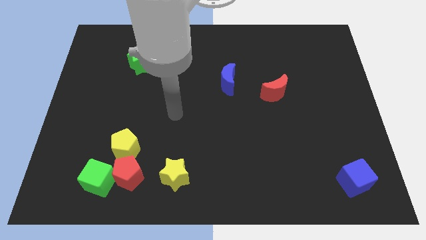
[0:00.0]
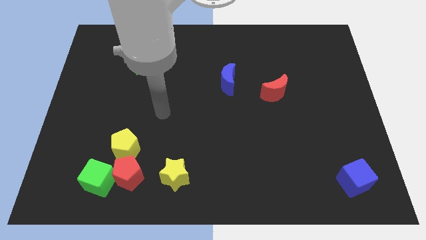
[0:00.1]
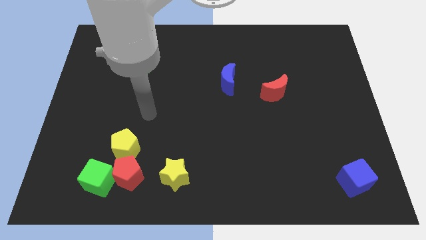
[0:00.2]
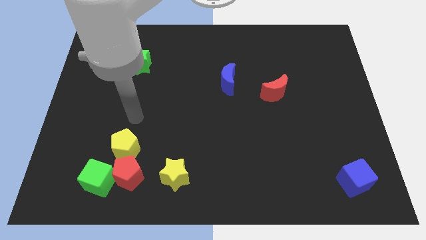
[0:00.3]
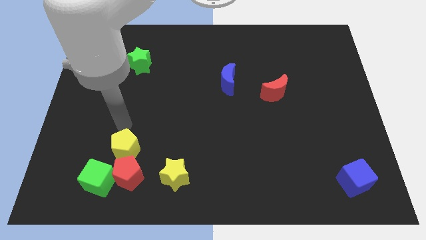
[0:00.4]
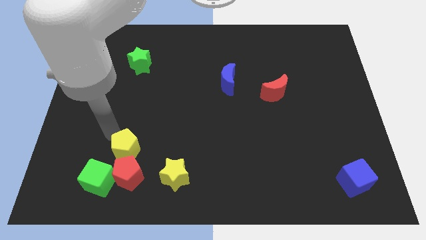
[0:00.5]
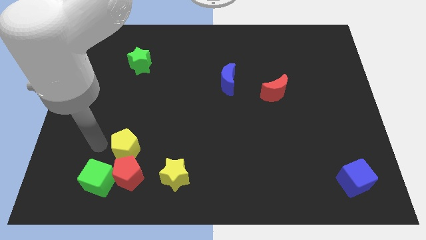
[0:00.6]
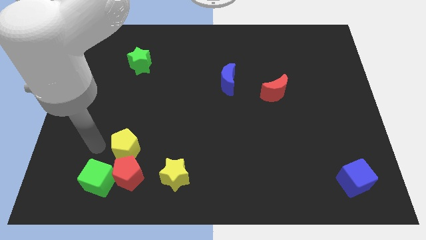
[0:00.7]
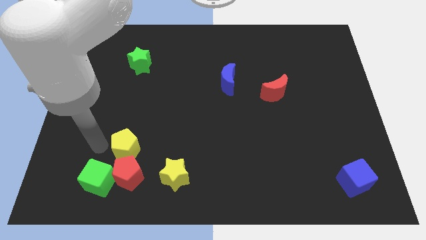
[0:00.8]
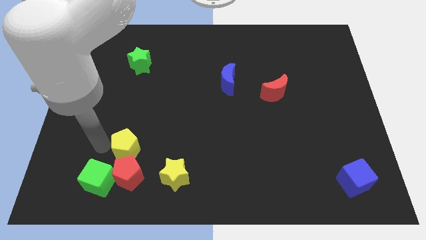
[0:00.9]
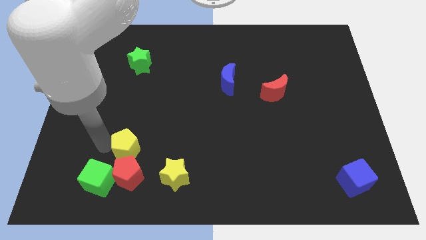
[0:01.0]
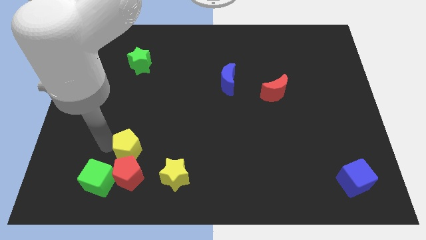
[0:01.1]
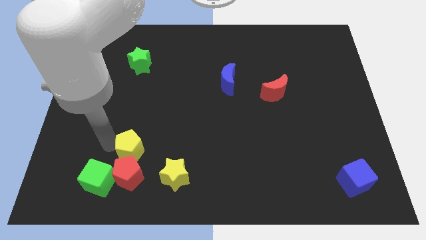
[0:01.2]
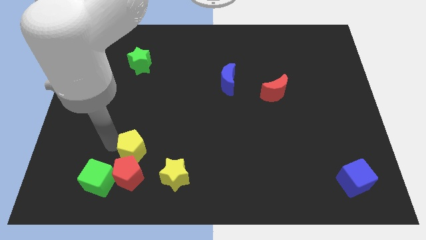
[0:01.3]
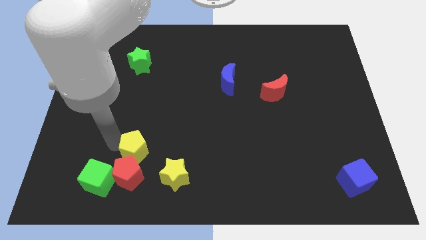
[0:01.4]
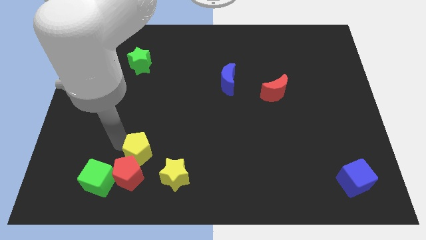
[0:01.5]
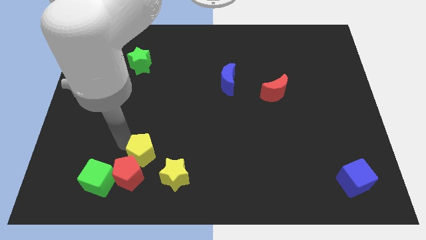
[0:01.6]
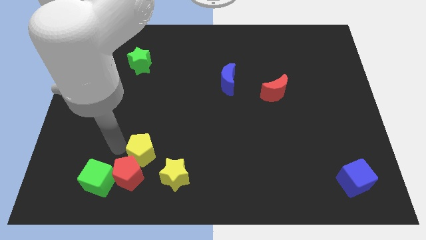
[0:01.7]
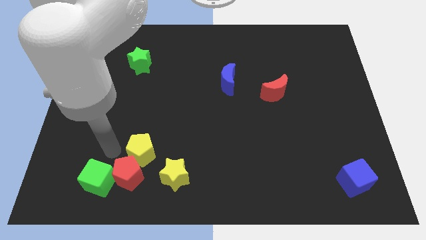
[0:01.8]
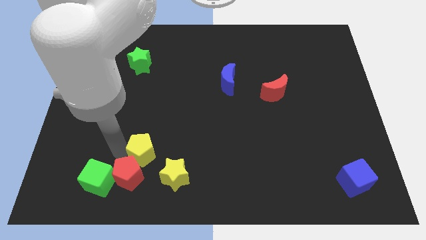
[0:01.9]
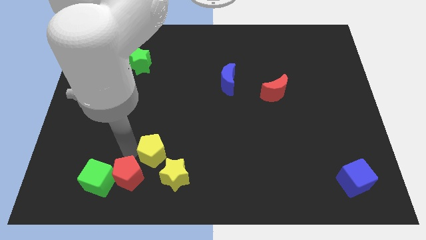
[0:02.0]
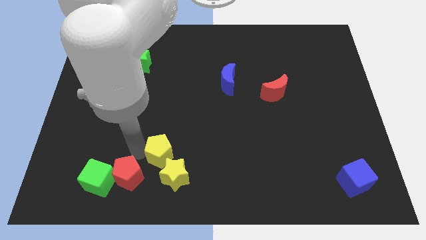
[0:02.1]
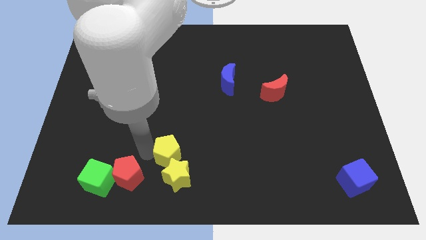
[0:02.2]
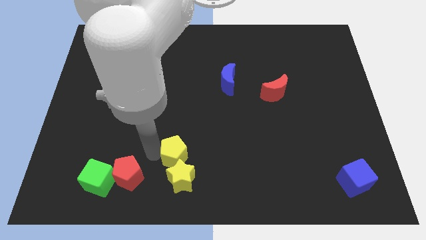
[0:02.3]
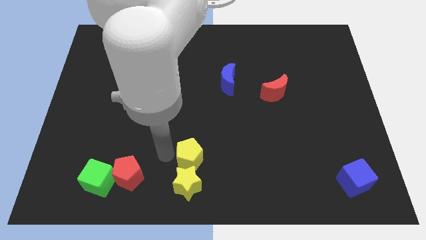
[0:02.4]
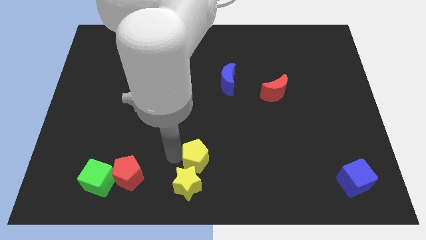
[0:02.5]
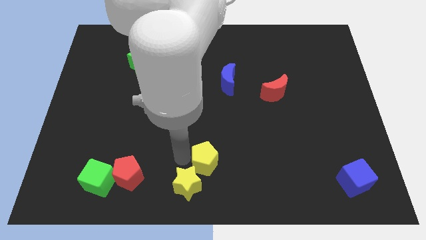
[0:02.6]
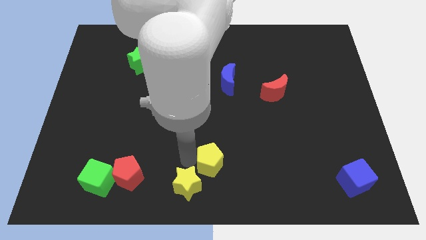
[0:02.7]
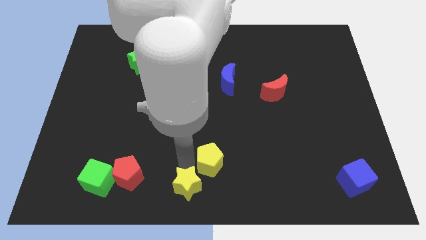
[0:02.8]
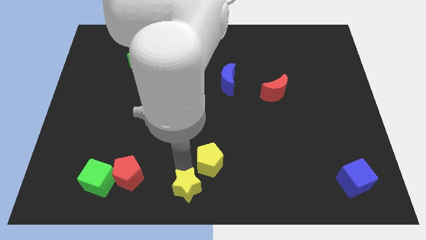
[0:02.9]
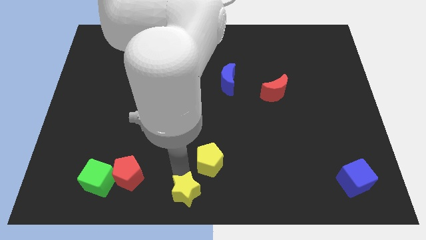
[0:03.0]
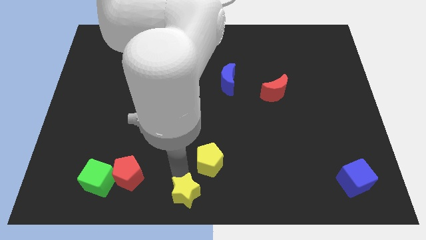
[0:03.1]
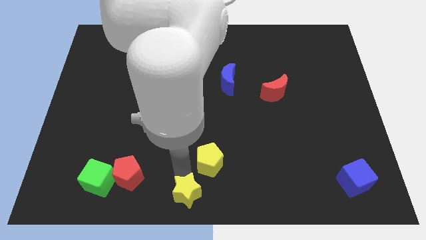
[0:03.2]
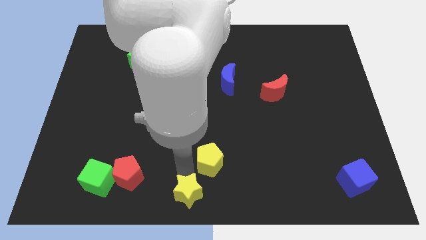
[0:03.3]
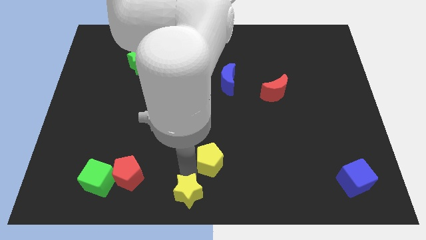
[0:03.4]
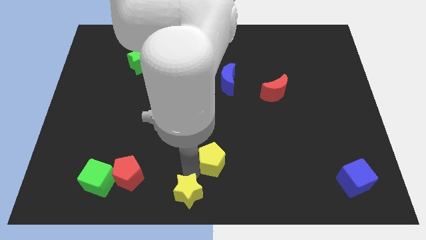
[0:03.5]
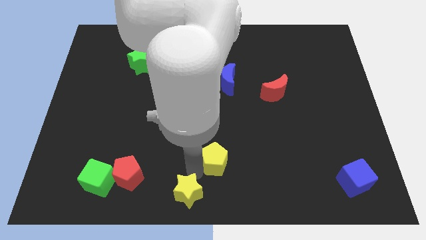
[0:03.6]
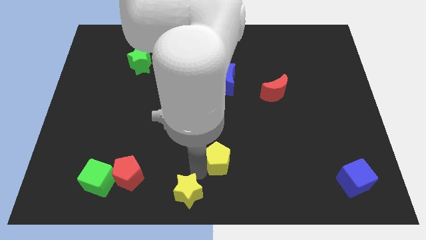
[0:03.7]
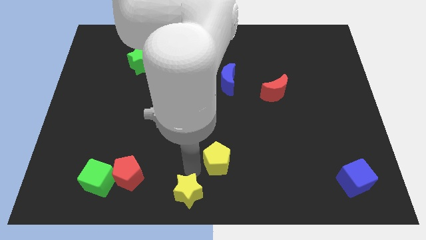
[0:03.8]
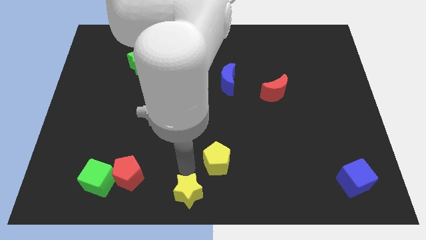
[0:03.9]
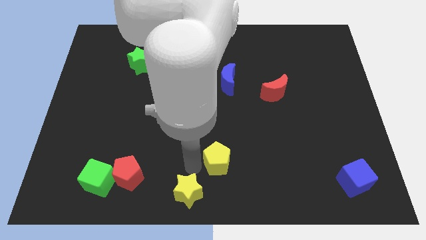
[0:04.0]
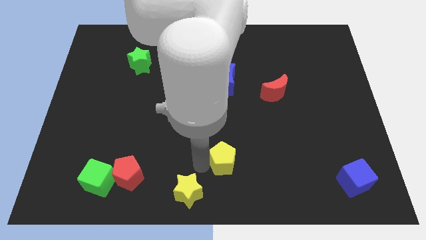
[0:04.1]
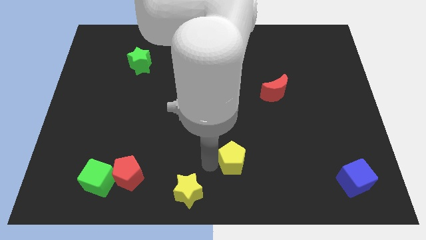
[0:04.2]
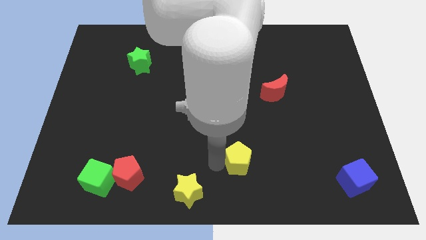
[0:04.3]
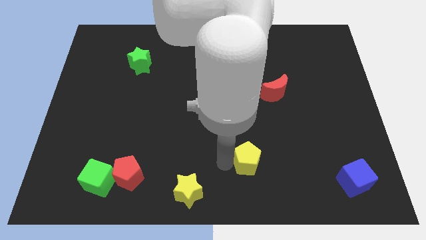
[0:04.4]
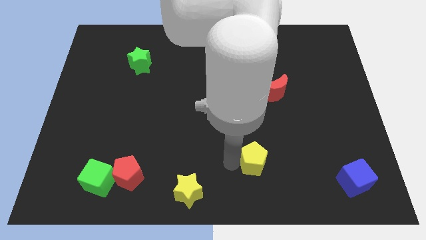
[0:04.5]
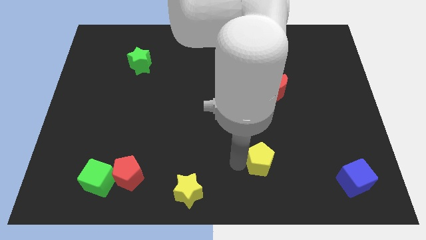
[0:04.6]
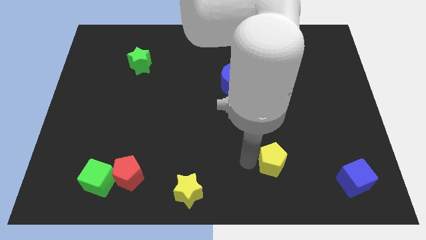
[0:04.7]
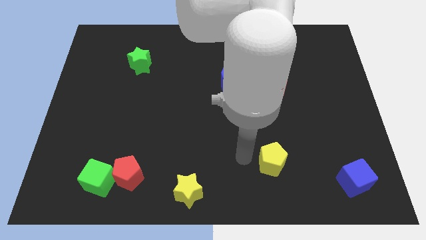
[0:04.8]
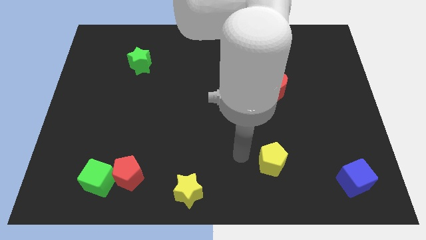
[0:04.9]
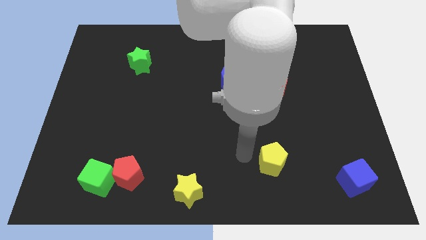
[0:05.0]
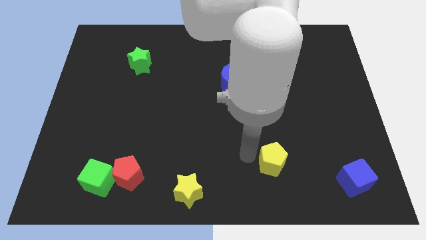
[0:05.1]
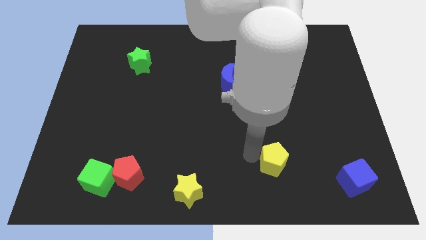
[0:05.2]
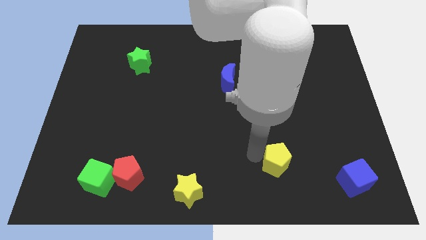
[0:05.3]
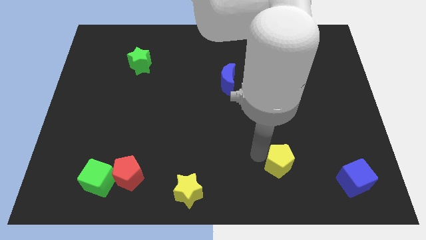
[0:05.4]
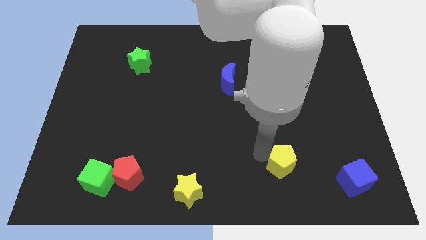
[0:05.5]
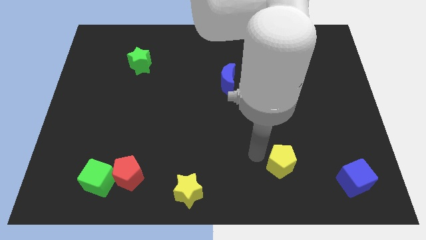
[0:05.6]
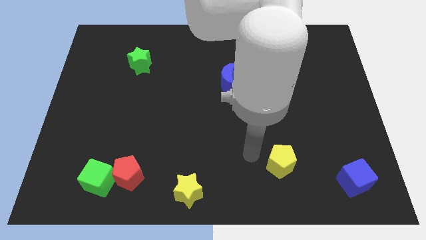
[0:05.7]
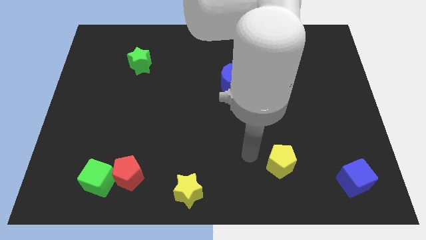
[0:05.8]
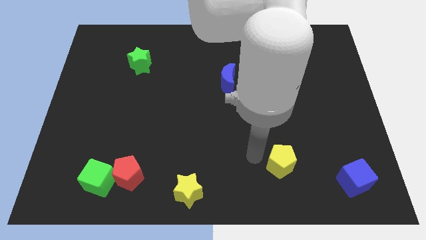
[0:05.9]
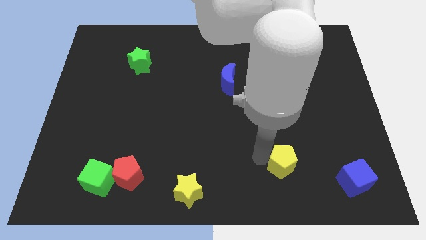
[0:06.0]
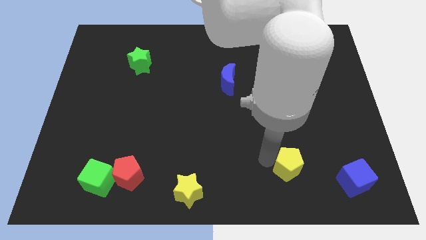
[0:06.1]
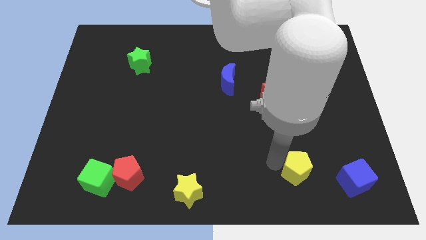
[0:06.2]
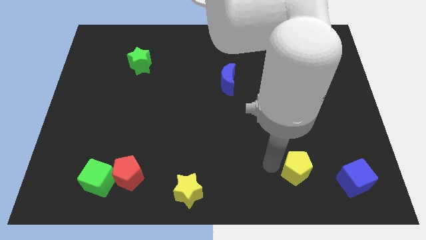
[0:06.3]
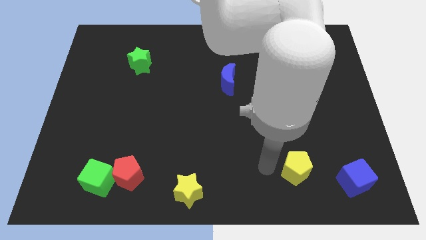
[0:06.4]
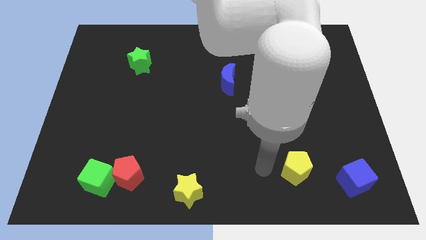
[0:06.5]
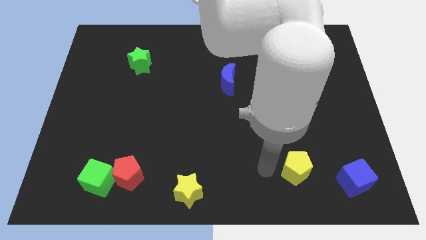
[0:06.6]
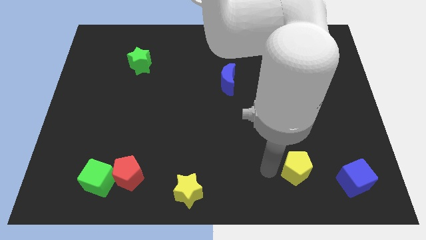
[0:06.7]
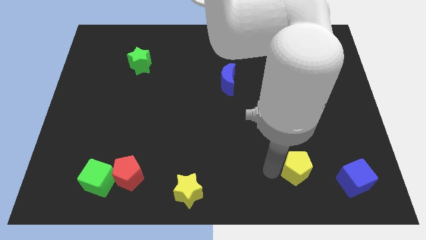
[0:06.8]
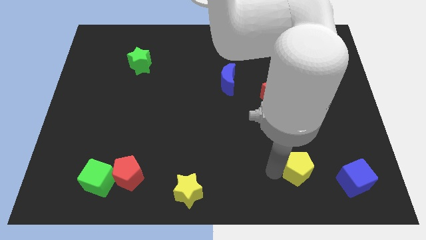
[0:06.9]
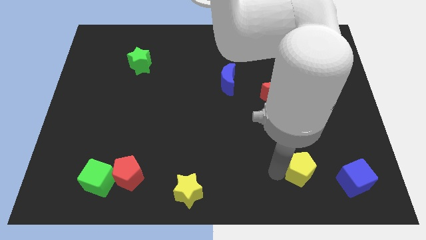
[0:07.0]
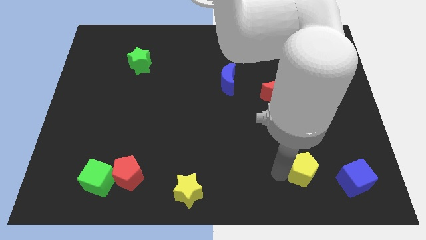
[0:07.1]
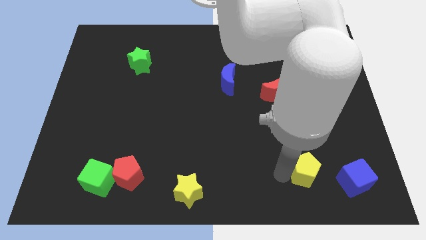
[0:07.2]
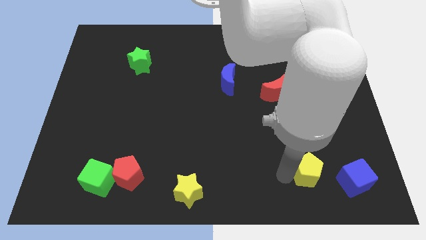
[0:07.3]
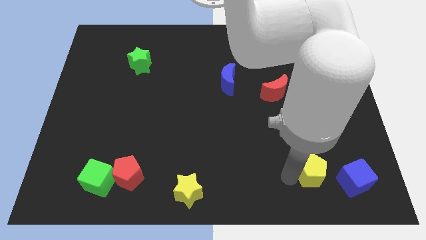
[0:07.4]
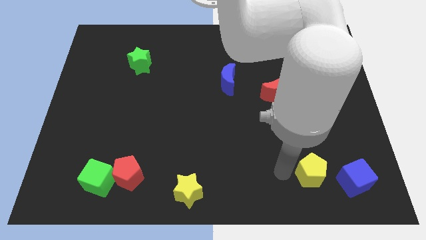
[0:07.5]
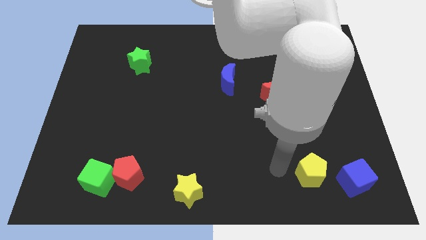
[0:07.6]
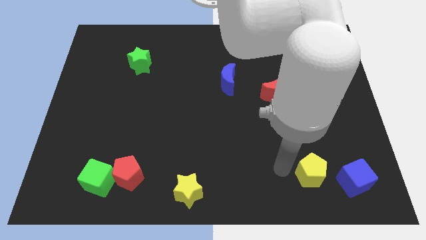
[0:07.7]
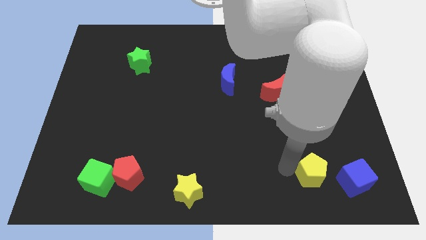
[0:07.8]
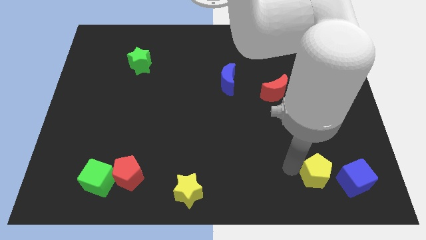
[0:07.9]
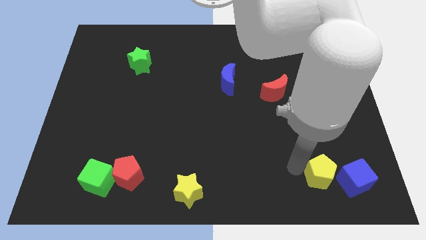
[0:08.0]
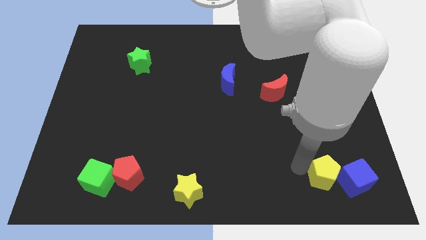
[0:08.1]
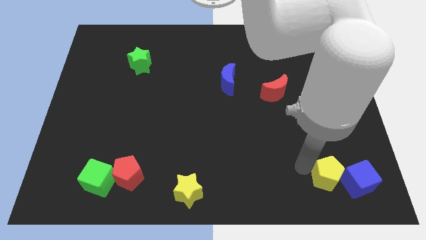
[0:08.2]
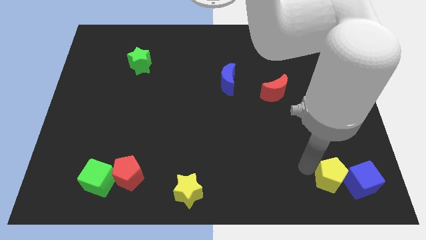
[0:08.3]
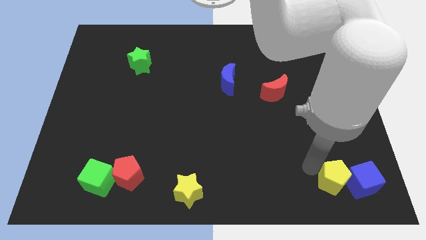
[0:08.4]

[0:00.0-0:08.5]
move the yellow pentagon next to the blue cube
